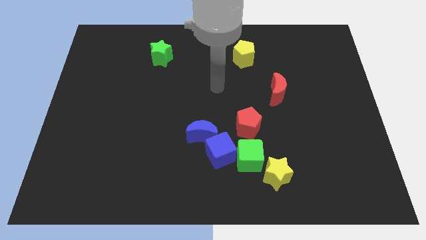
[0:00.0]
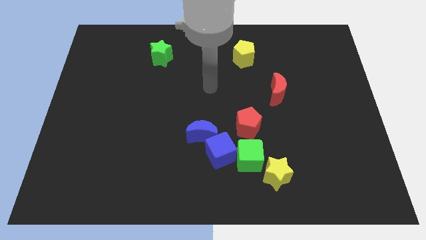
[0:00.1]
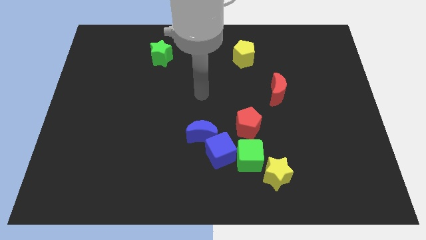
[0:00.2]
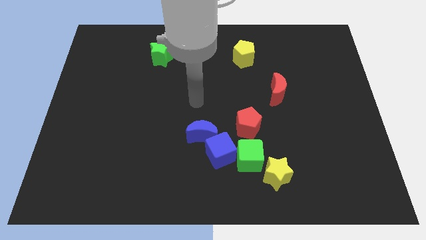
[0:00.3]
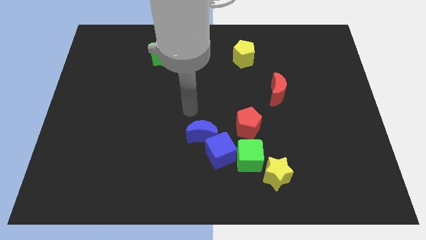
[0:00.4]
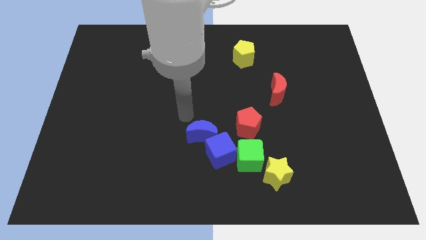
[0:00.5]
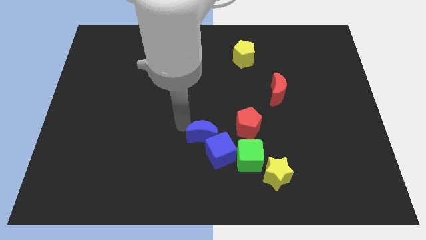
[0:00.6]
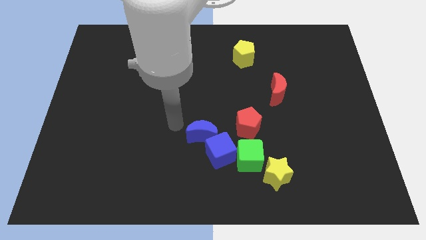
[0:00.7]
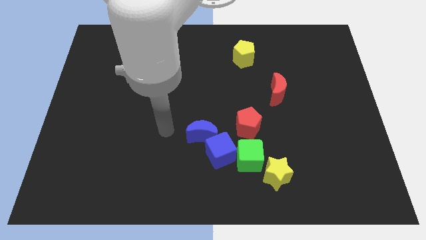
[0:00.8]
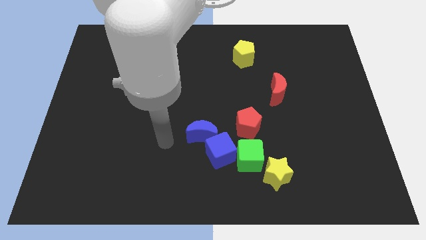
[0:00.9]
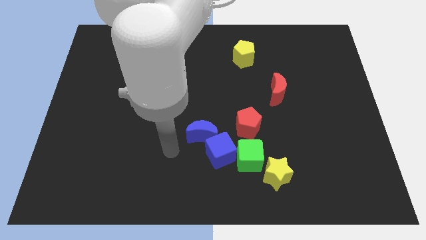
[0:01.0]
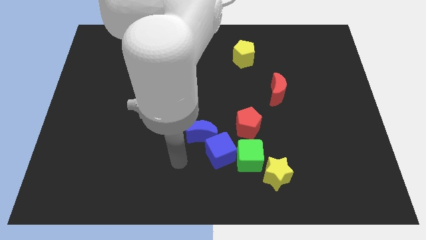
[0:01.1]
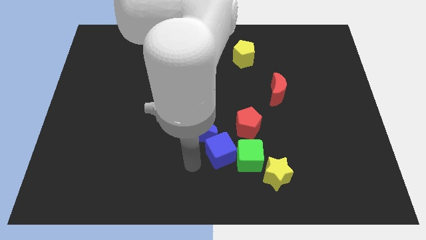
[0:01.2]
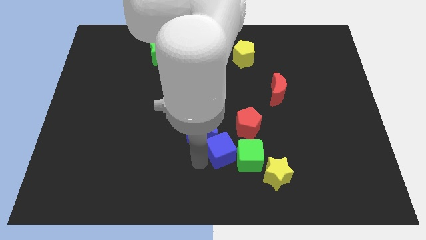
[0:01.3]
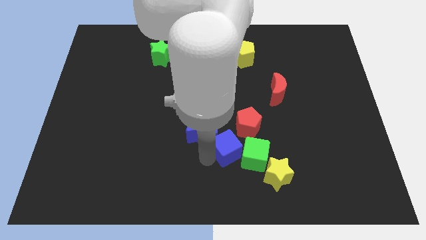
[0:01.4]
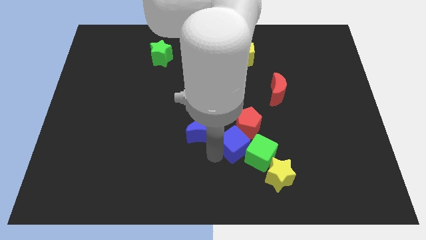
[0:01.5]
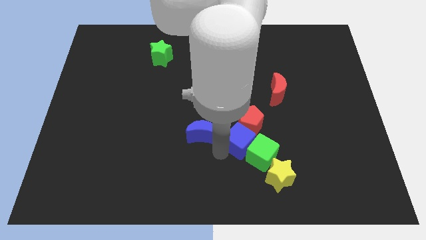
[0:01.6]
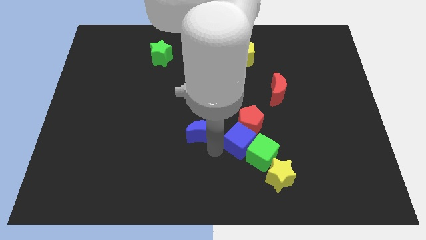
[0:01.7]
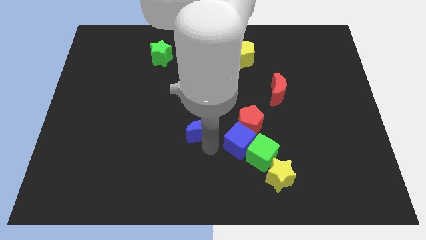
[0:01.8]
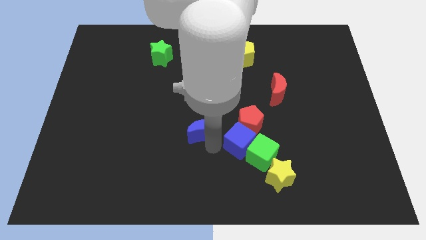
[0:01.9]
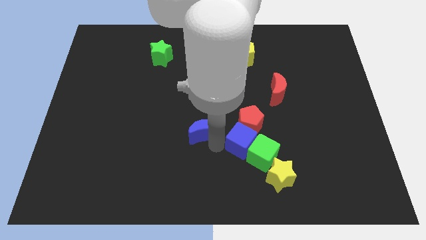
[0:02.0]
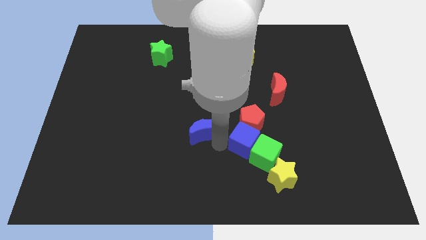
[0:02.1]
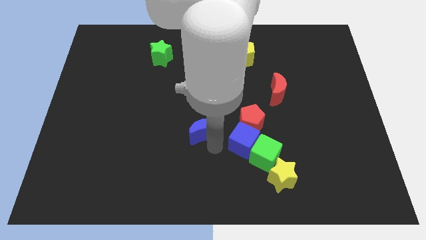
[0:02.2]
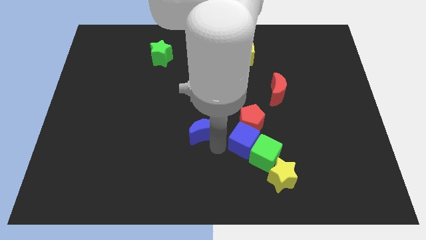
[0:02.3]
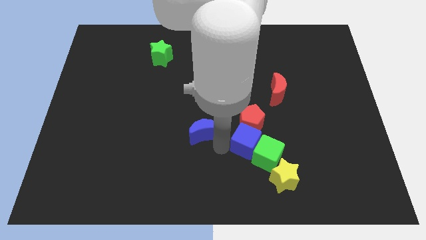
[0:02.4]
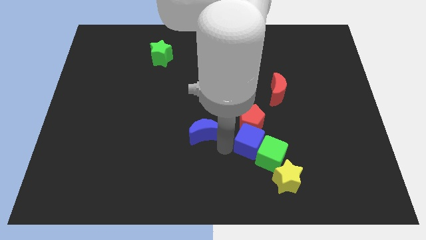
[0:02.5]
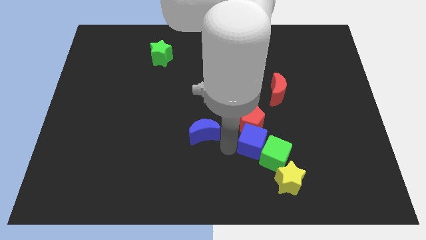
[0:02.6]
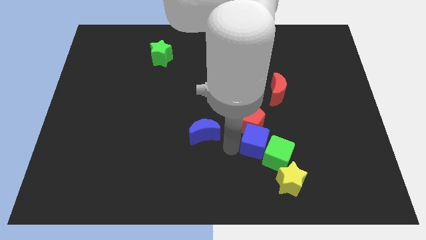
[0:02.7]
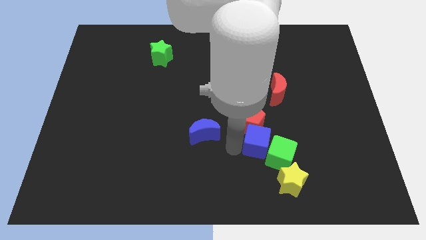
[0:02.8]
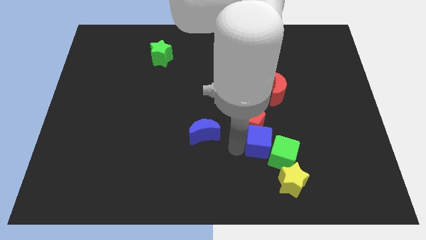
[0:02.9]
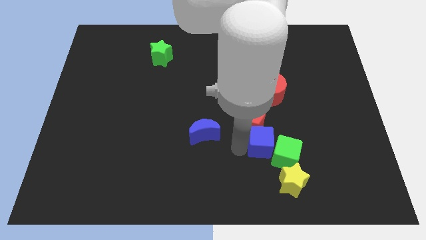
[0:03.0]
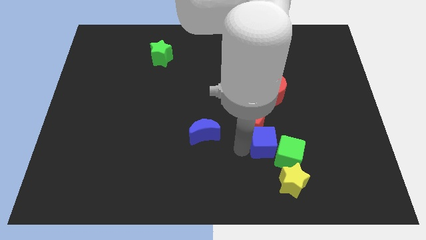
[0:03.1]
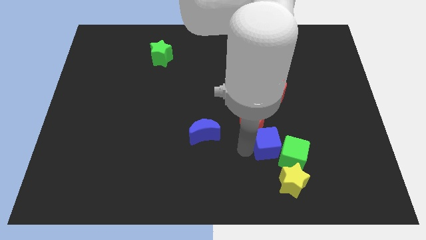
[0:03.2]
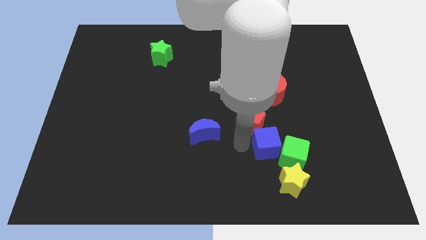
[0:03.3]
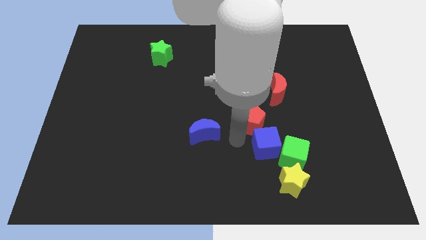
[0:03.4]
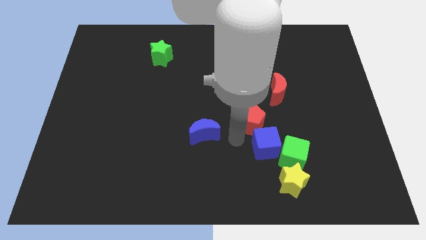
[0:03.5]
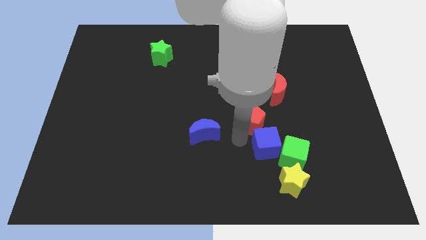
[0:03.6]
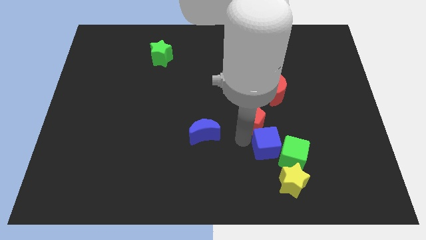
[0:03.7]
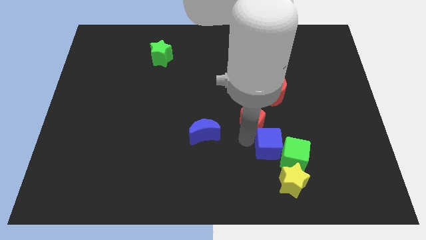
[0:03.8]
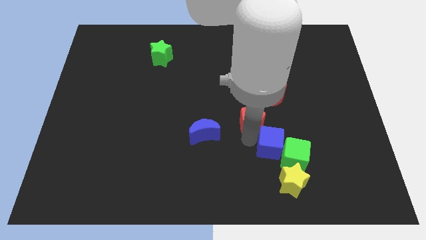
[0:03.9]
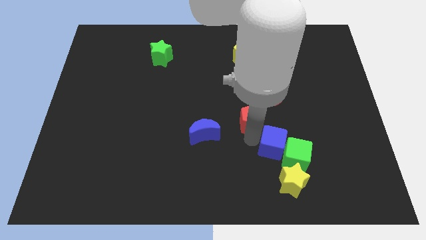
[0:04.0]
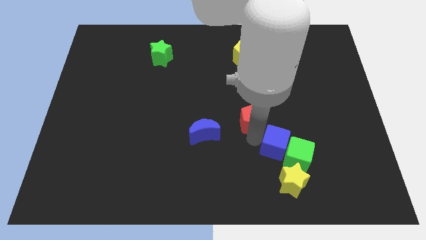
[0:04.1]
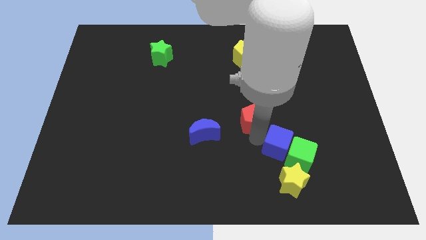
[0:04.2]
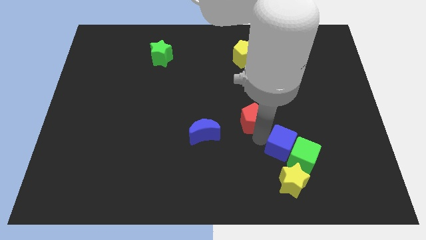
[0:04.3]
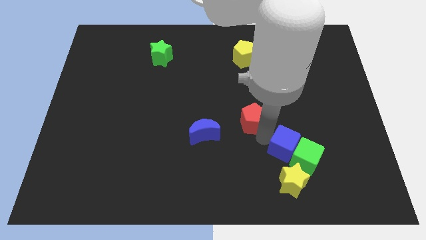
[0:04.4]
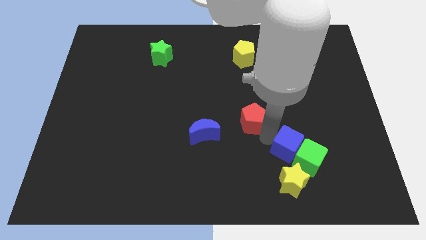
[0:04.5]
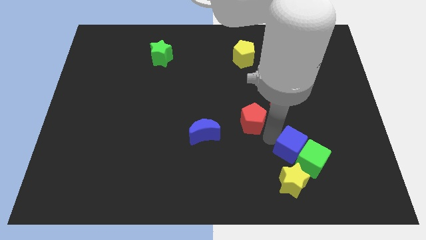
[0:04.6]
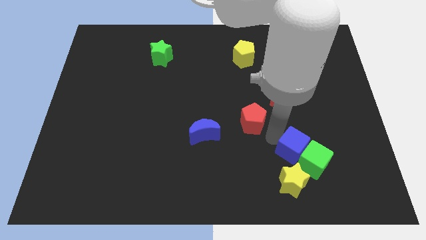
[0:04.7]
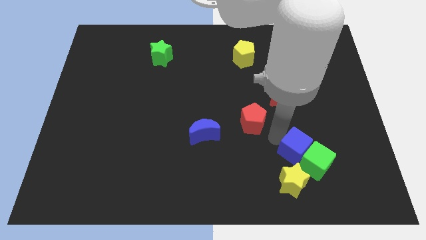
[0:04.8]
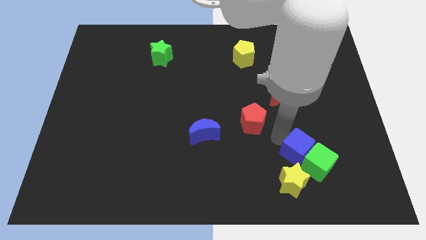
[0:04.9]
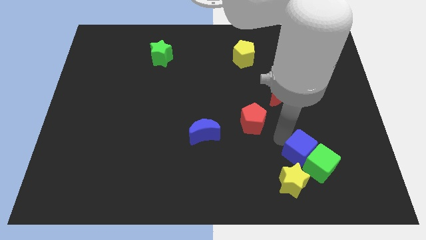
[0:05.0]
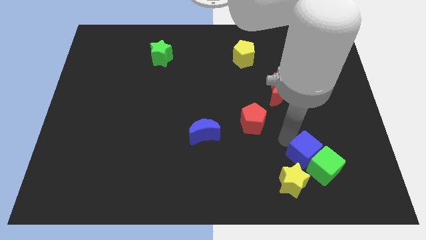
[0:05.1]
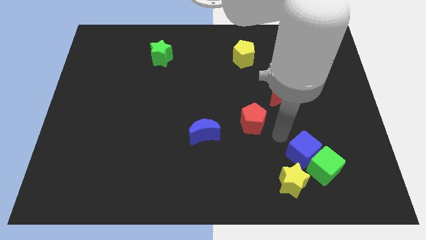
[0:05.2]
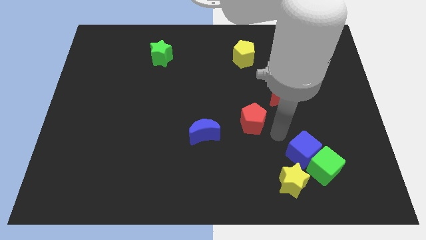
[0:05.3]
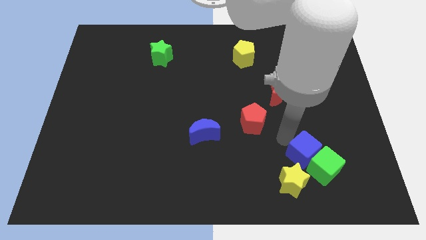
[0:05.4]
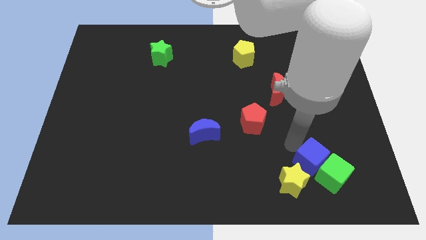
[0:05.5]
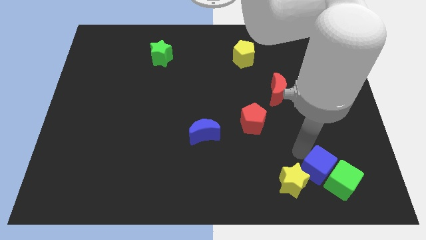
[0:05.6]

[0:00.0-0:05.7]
push the blue cube just right of the yellow star

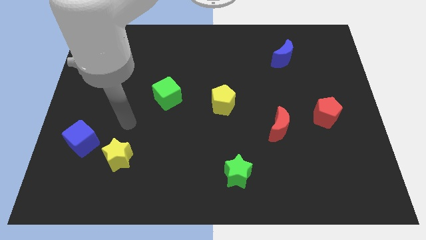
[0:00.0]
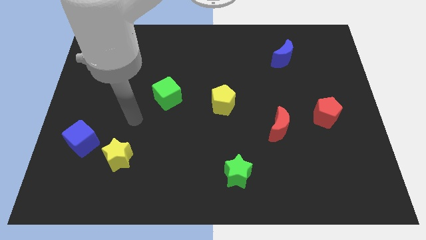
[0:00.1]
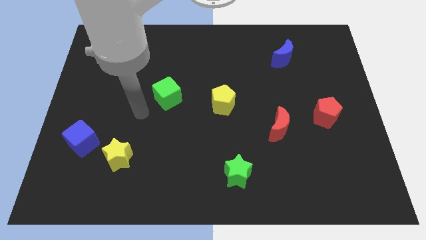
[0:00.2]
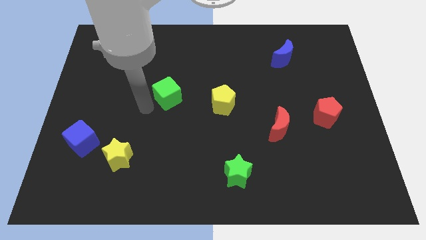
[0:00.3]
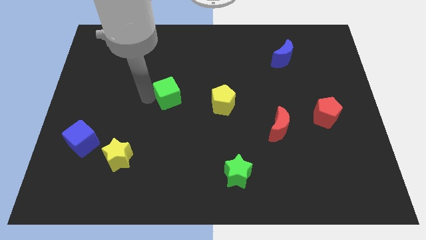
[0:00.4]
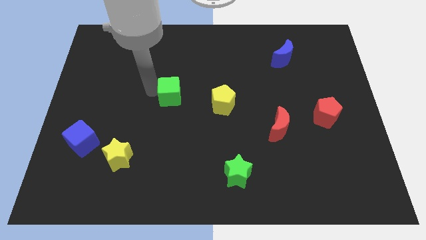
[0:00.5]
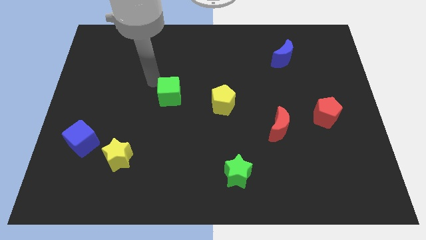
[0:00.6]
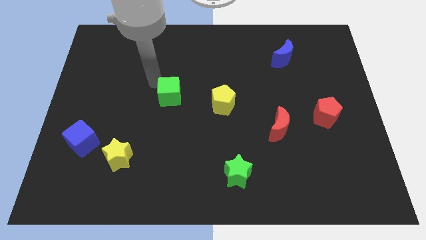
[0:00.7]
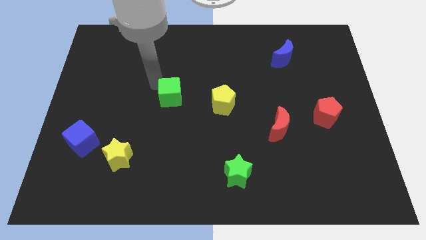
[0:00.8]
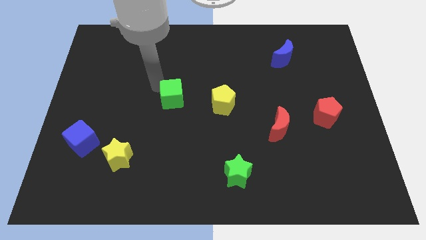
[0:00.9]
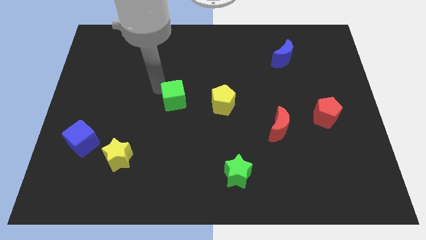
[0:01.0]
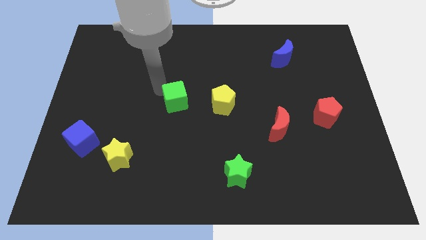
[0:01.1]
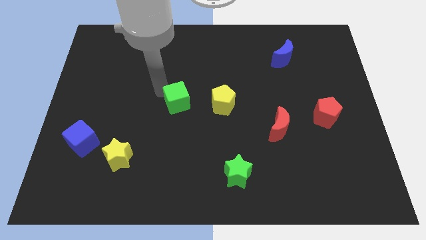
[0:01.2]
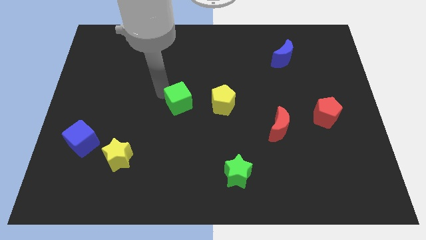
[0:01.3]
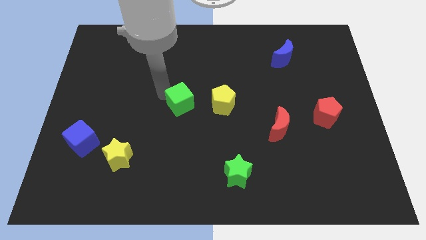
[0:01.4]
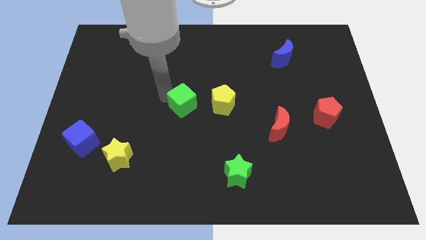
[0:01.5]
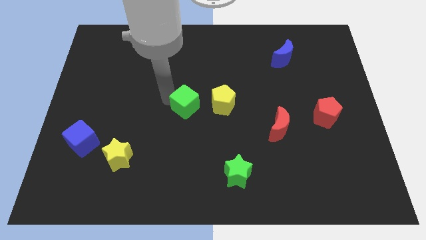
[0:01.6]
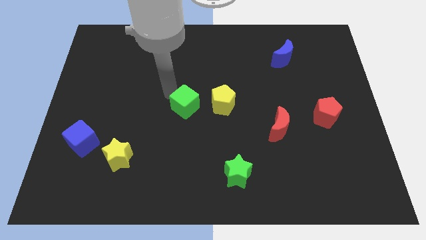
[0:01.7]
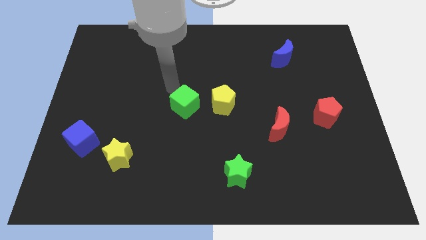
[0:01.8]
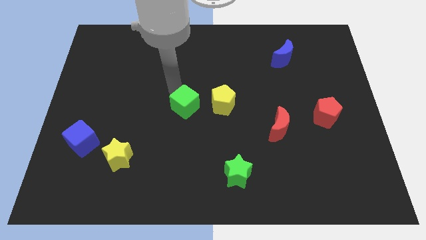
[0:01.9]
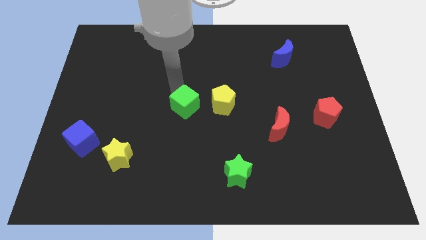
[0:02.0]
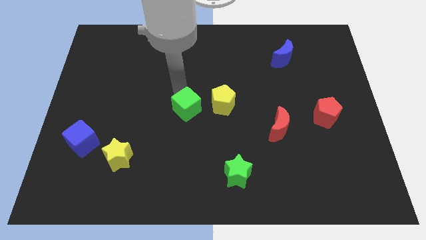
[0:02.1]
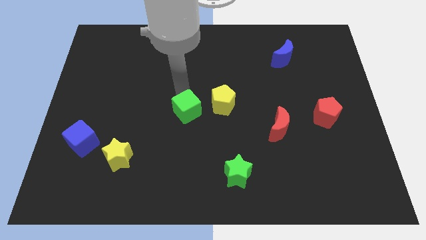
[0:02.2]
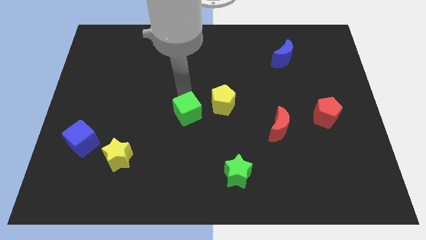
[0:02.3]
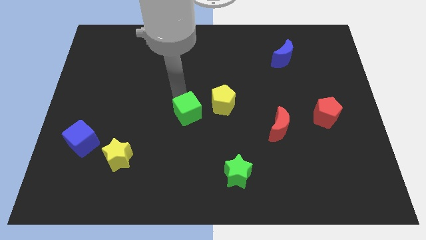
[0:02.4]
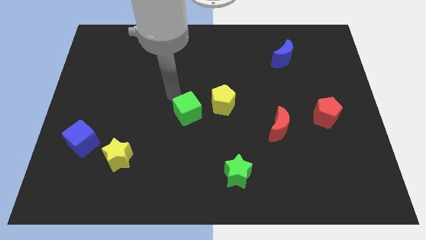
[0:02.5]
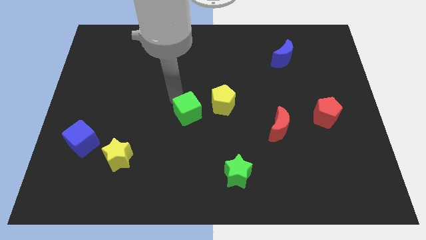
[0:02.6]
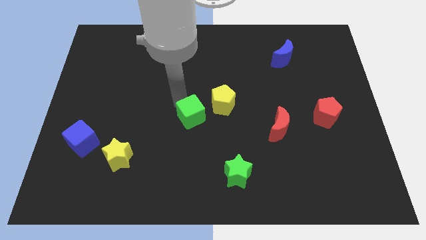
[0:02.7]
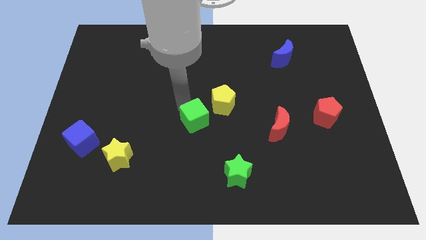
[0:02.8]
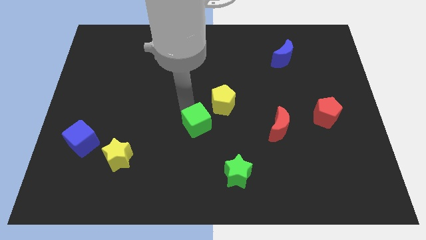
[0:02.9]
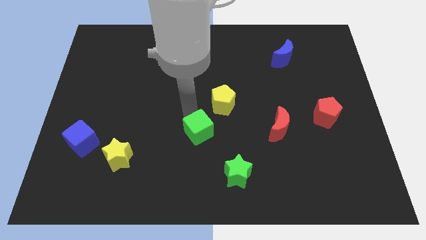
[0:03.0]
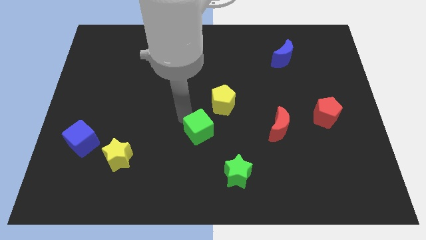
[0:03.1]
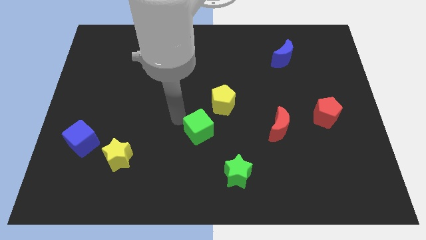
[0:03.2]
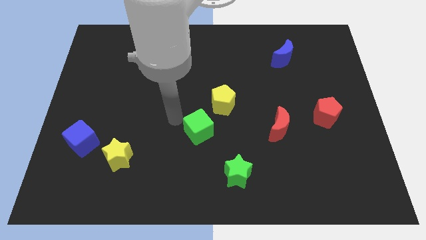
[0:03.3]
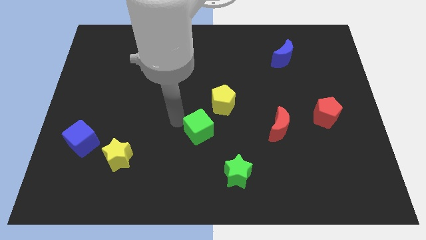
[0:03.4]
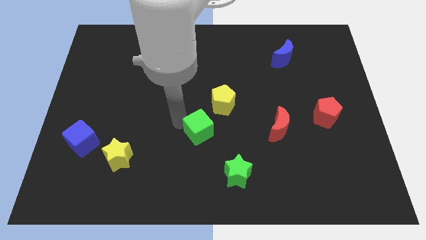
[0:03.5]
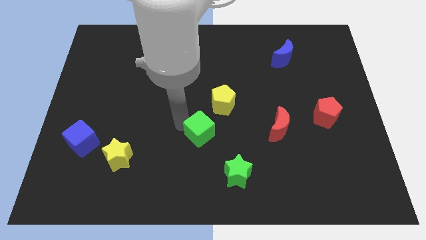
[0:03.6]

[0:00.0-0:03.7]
move the green cube below the yellow pentagon
